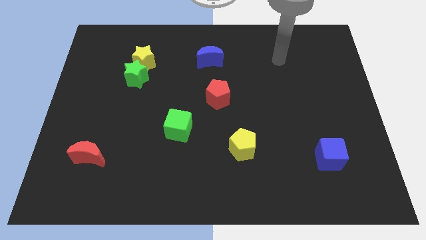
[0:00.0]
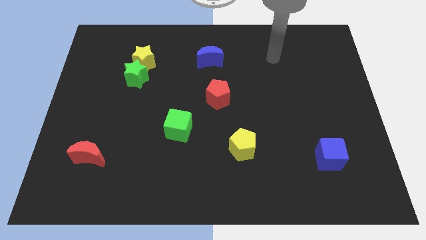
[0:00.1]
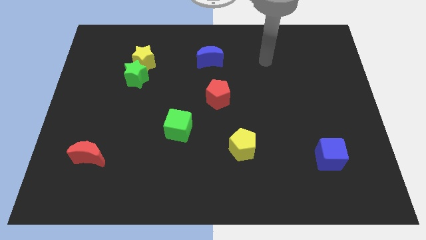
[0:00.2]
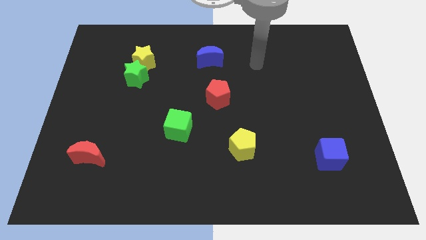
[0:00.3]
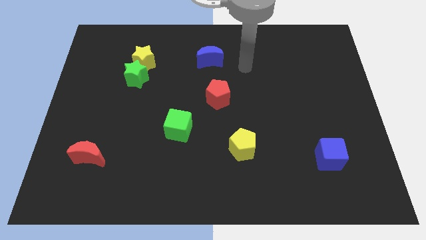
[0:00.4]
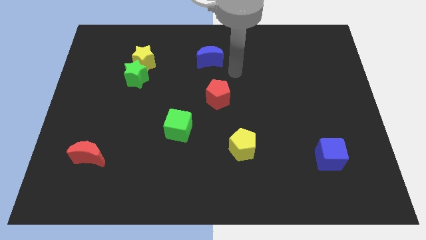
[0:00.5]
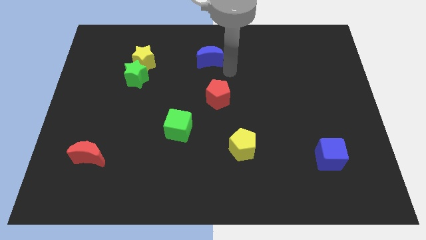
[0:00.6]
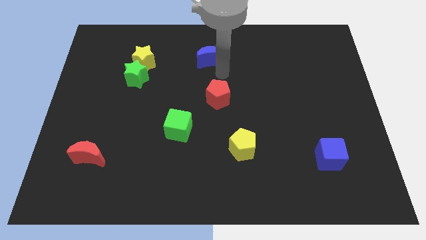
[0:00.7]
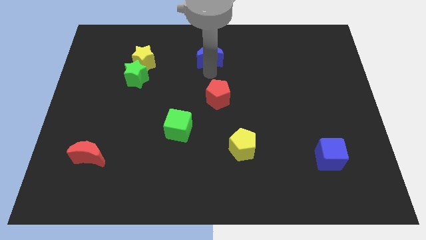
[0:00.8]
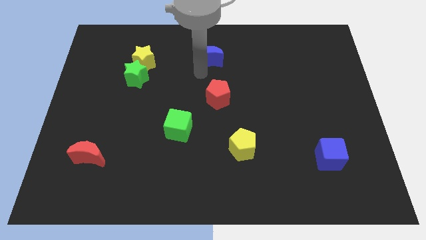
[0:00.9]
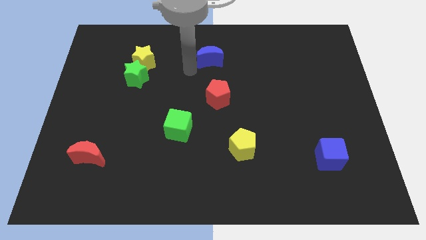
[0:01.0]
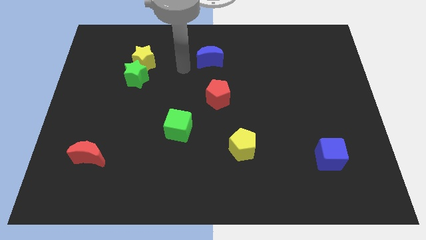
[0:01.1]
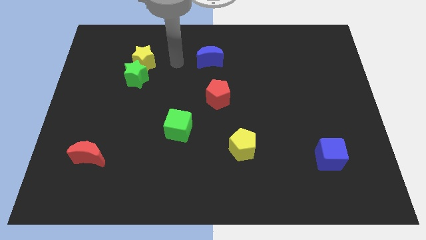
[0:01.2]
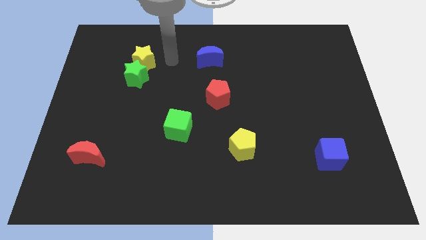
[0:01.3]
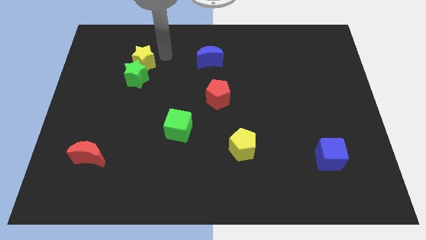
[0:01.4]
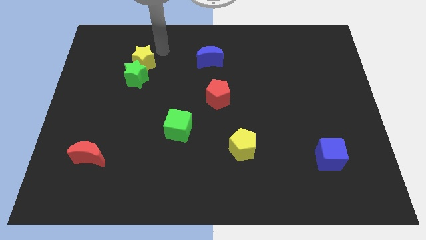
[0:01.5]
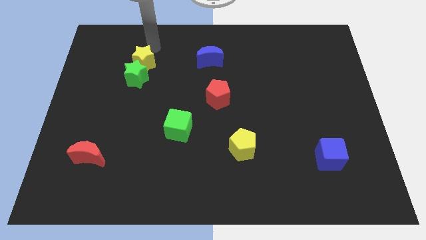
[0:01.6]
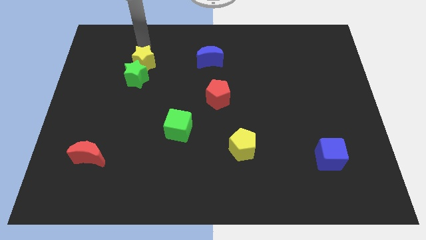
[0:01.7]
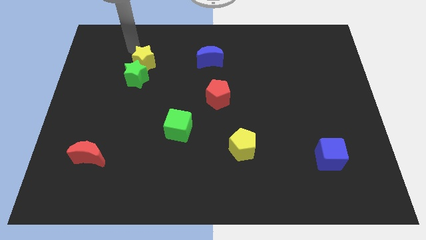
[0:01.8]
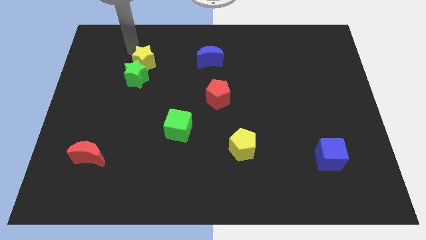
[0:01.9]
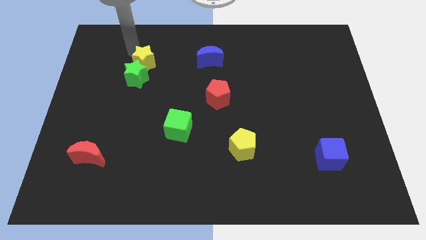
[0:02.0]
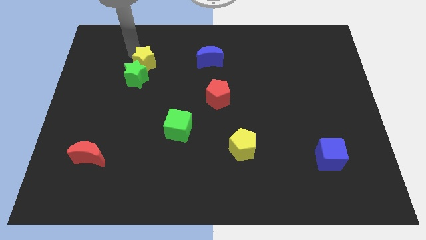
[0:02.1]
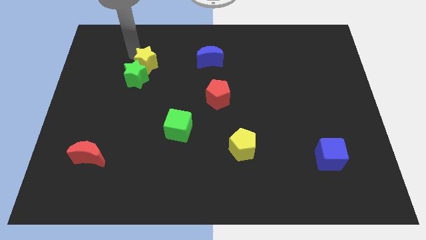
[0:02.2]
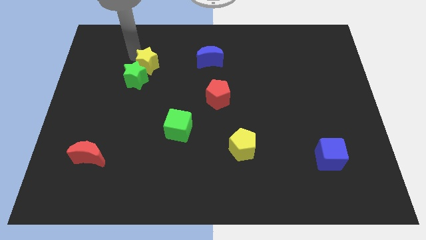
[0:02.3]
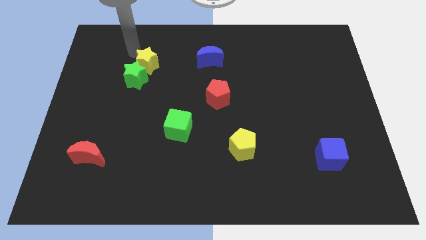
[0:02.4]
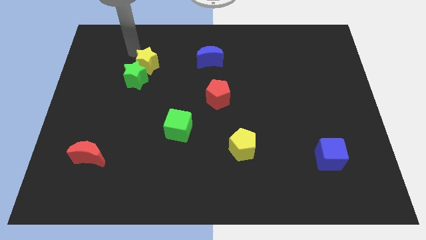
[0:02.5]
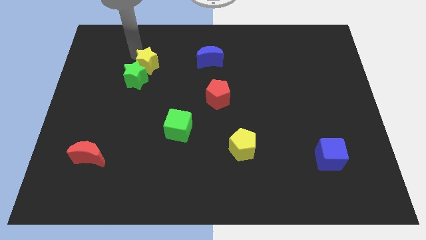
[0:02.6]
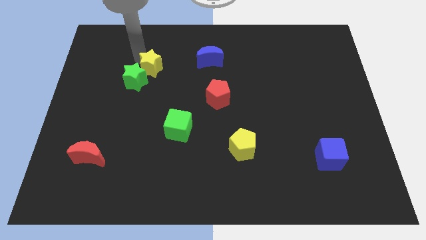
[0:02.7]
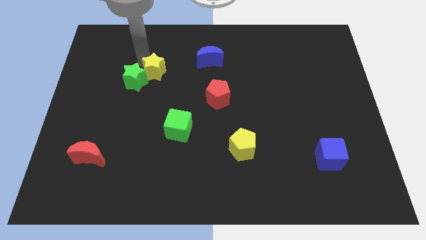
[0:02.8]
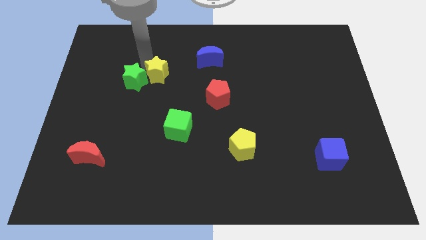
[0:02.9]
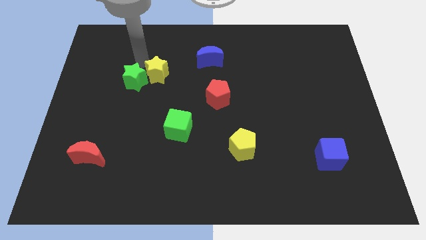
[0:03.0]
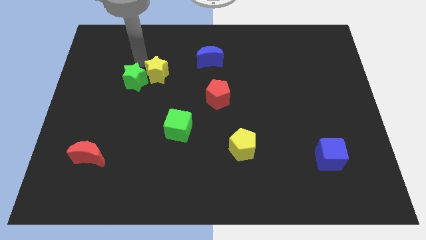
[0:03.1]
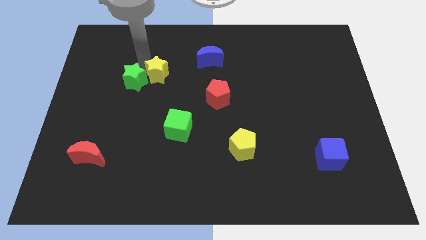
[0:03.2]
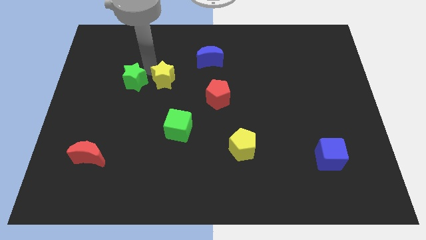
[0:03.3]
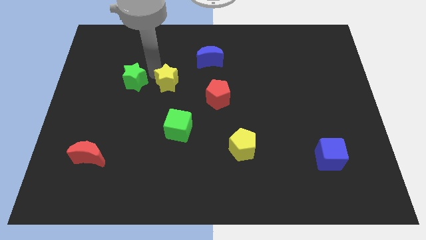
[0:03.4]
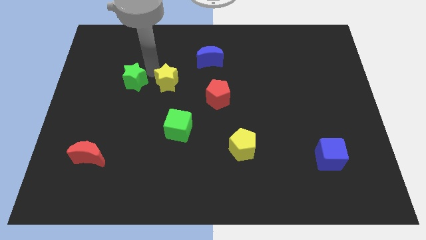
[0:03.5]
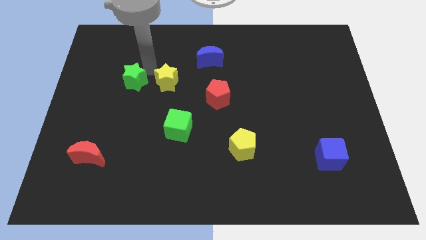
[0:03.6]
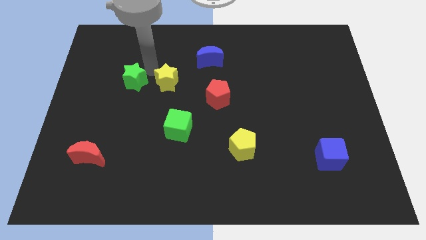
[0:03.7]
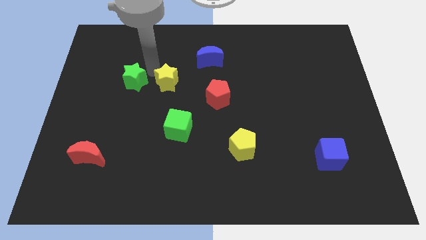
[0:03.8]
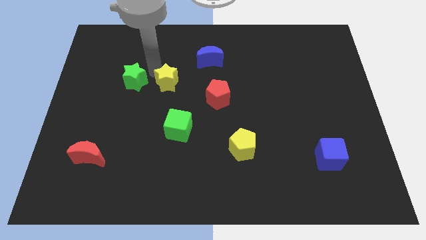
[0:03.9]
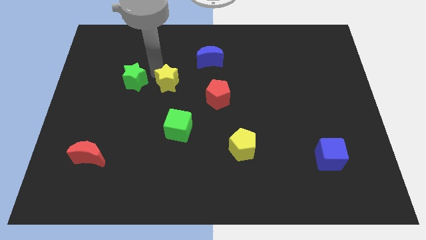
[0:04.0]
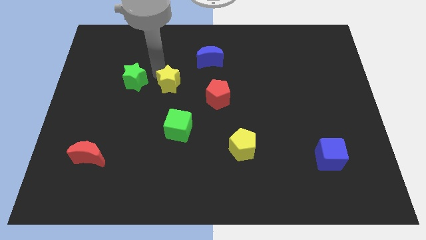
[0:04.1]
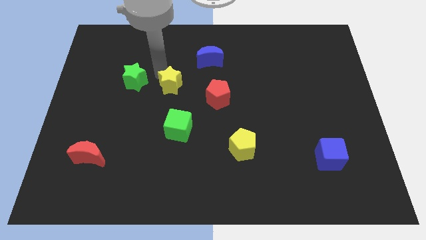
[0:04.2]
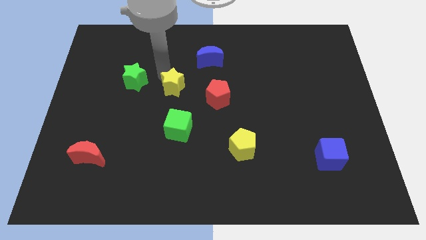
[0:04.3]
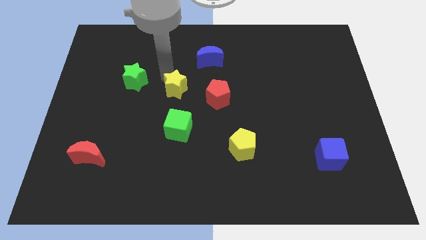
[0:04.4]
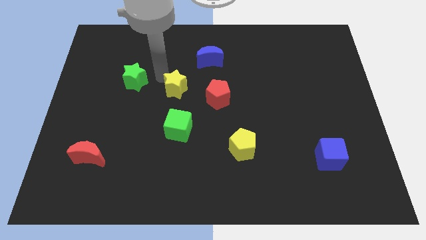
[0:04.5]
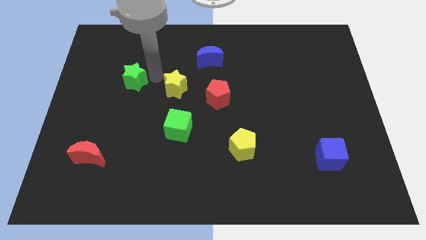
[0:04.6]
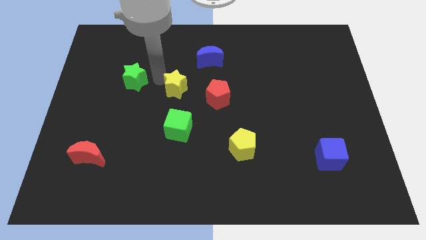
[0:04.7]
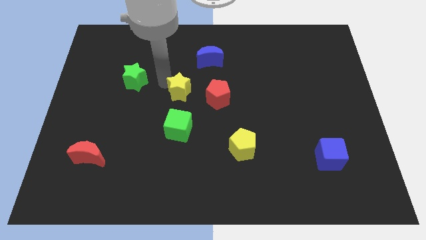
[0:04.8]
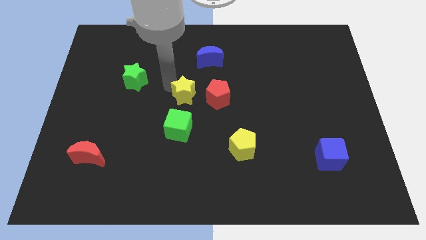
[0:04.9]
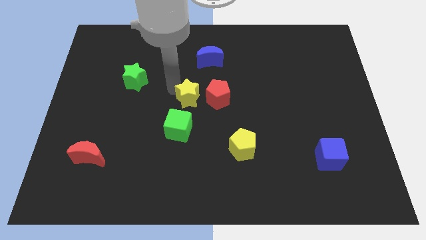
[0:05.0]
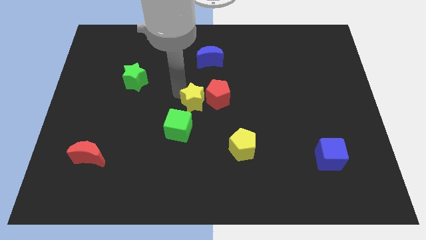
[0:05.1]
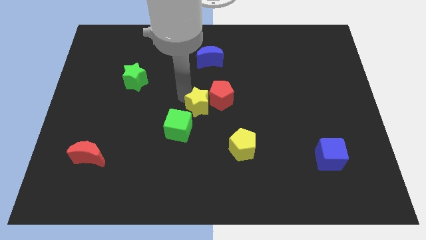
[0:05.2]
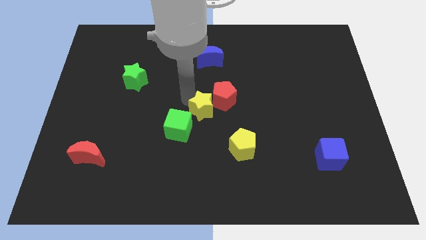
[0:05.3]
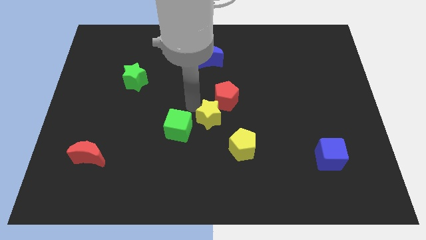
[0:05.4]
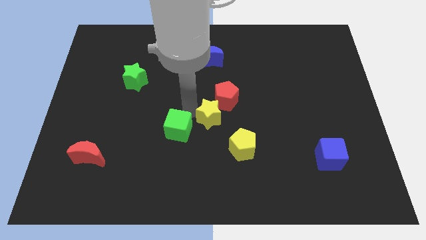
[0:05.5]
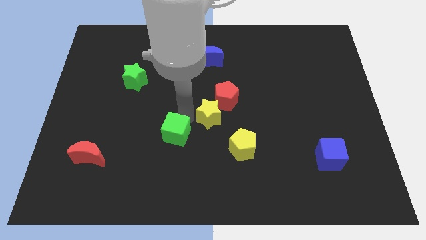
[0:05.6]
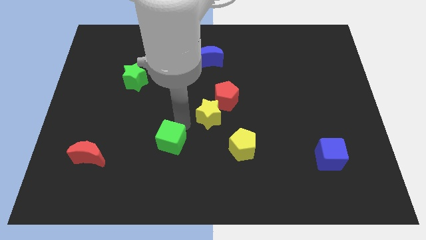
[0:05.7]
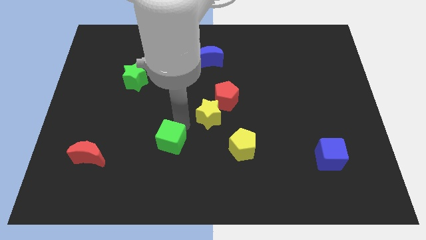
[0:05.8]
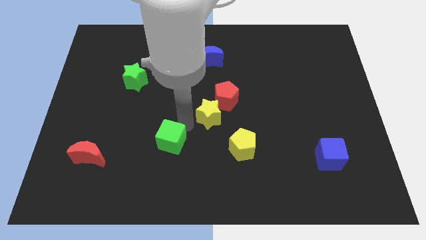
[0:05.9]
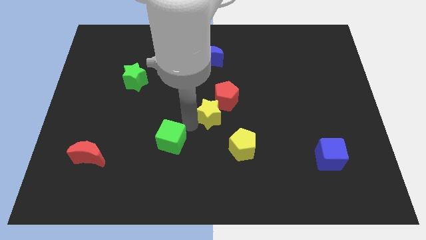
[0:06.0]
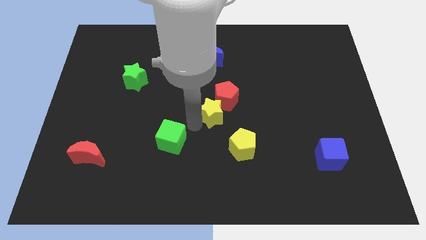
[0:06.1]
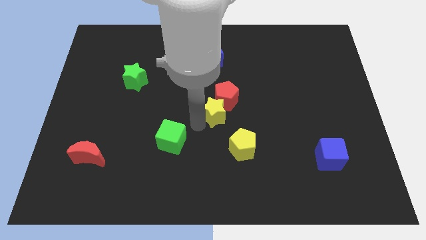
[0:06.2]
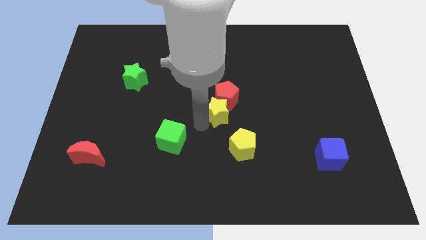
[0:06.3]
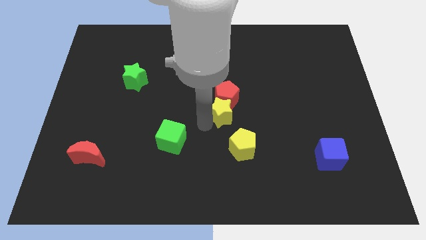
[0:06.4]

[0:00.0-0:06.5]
slide the yellow star above the yellow pentagon
